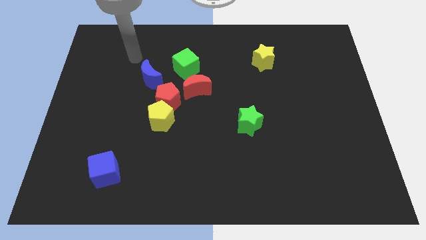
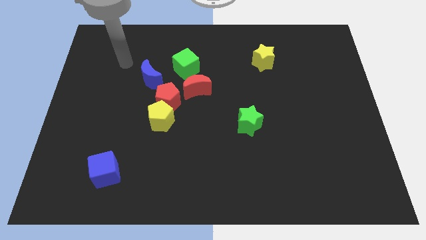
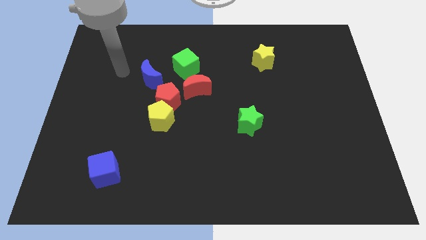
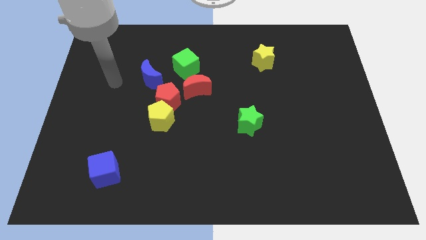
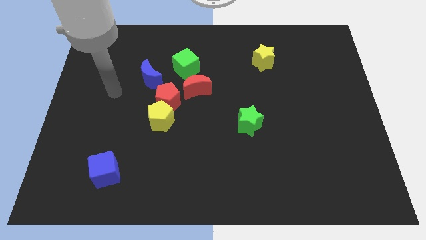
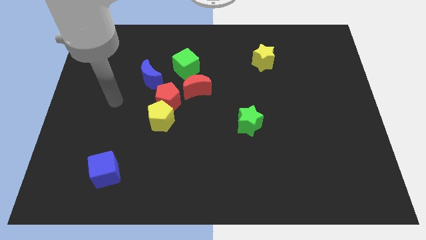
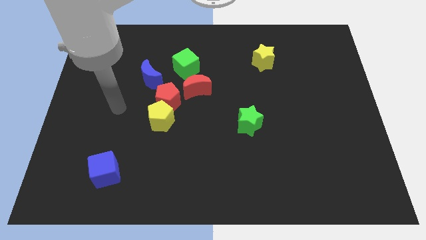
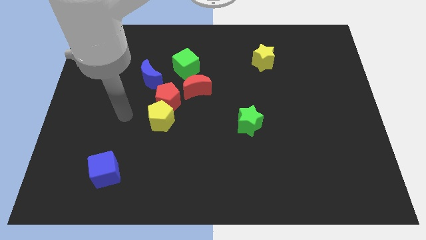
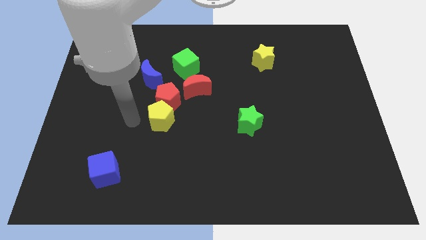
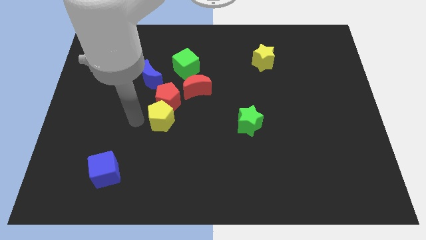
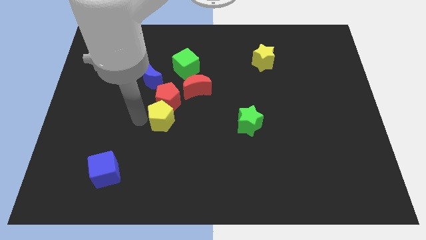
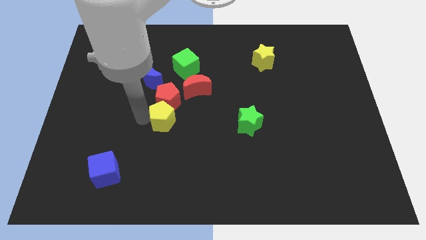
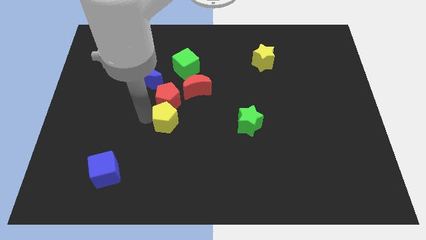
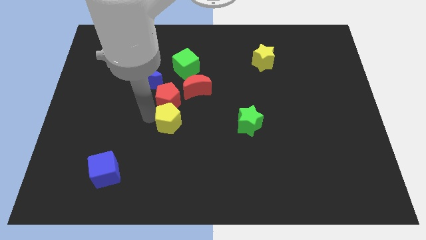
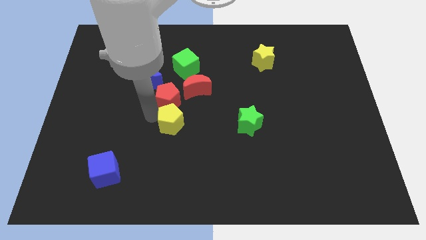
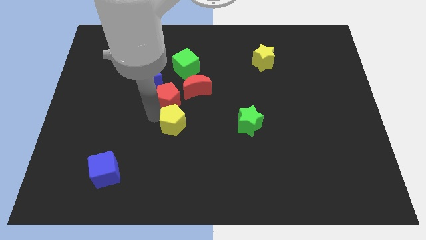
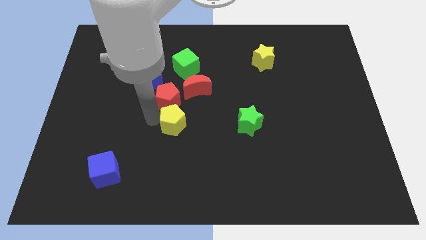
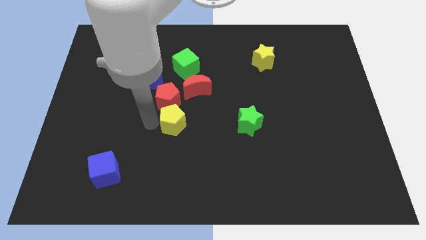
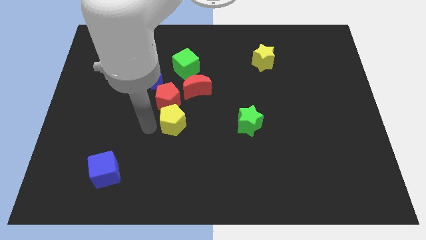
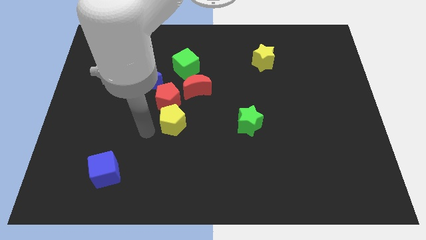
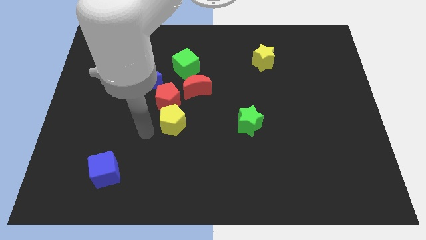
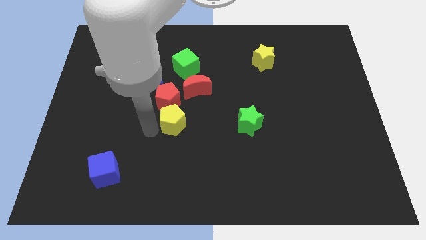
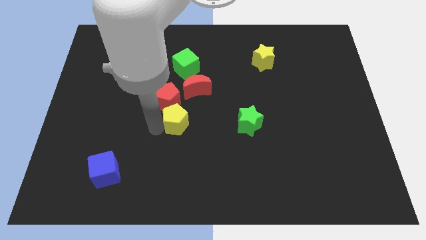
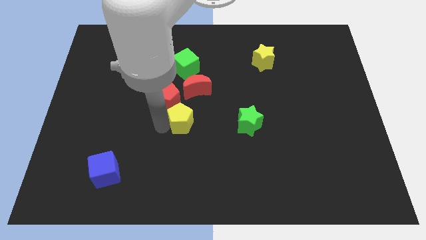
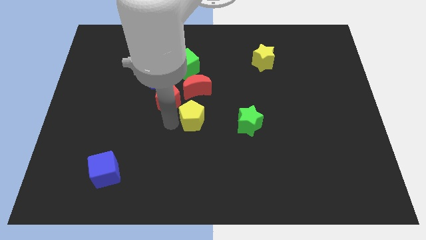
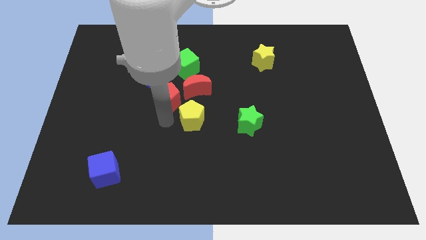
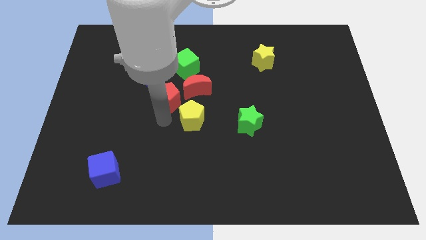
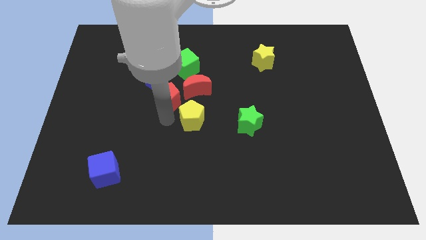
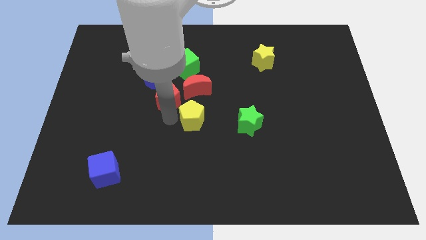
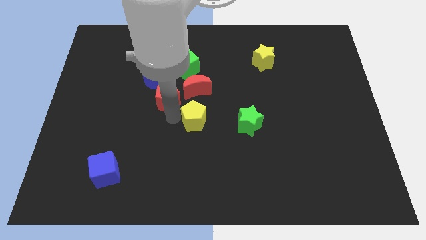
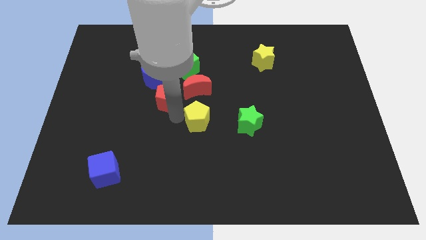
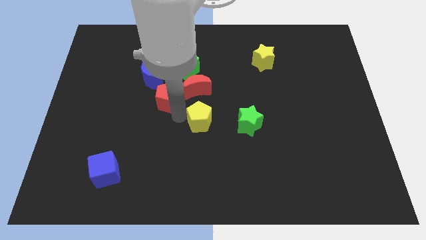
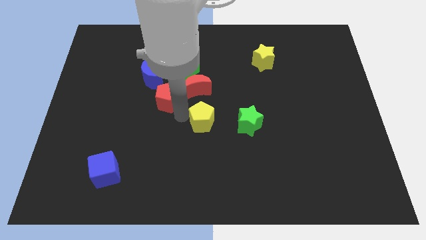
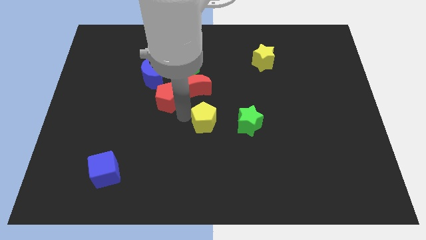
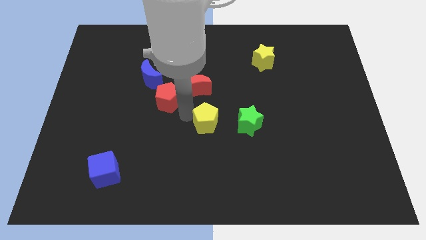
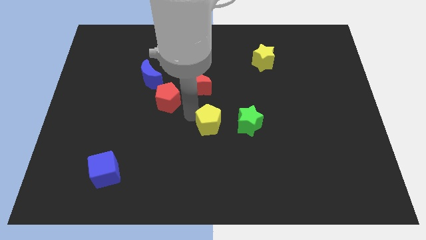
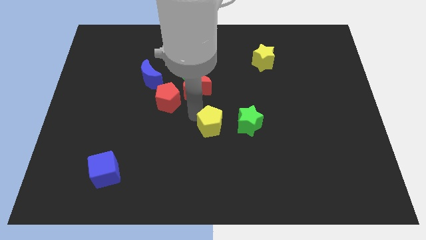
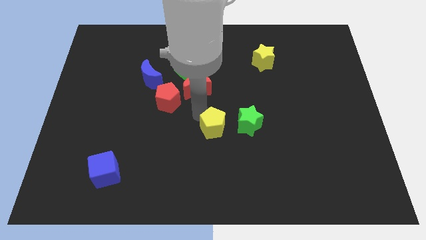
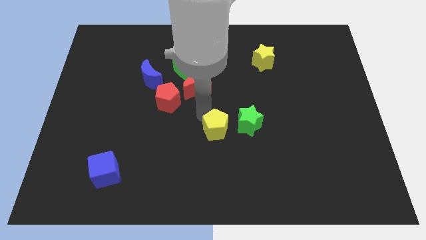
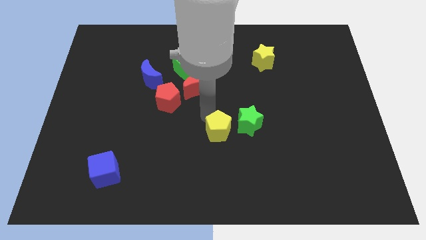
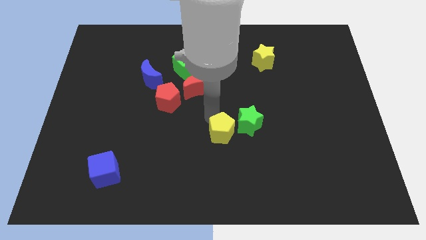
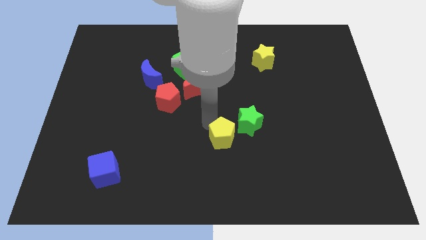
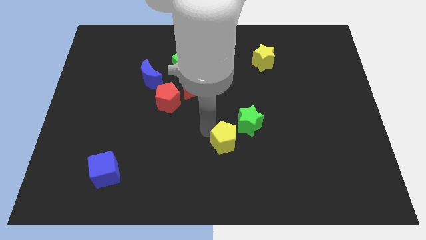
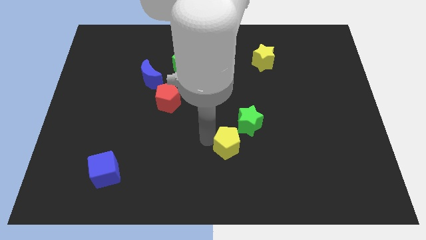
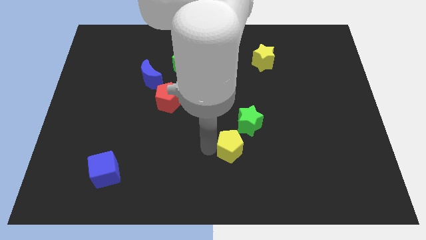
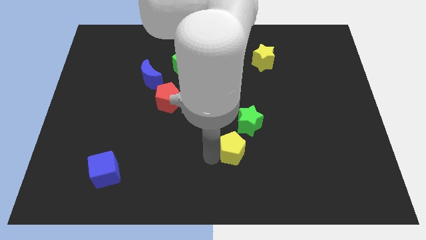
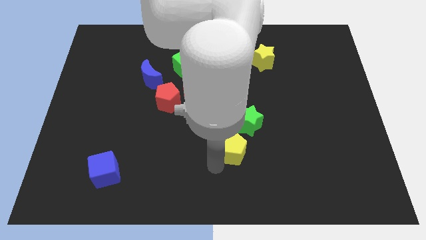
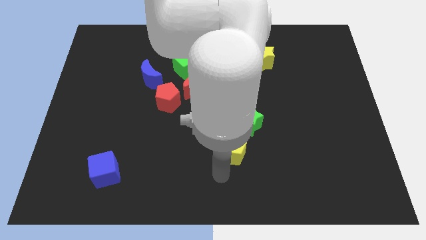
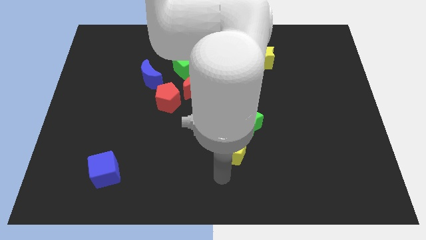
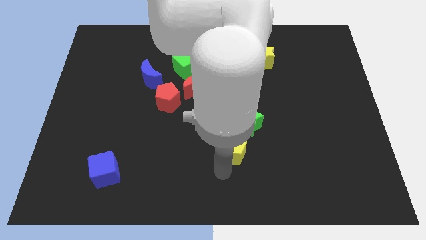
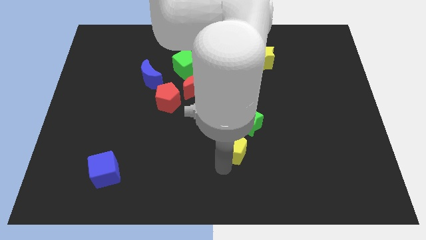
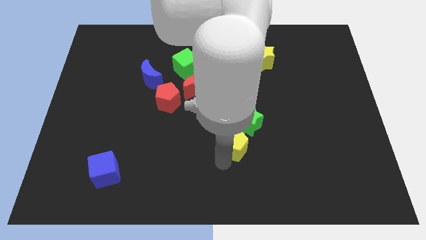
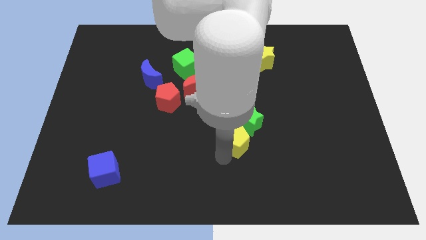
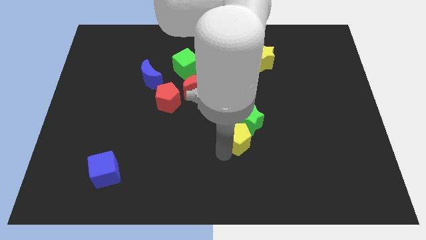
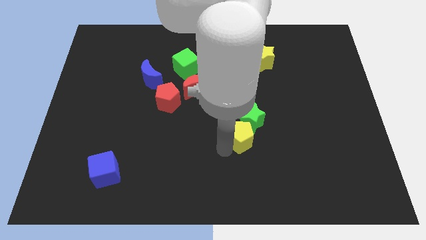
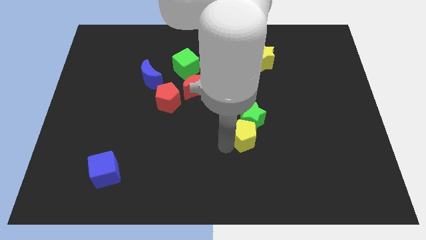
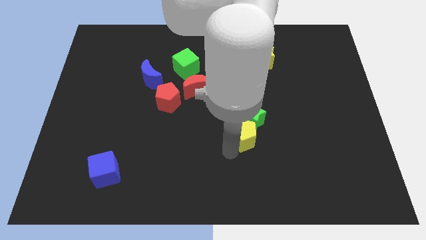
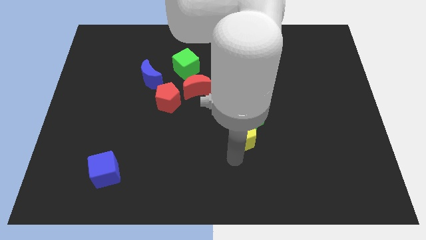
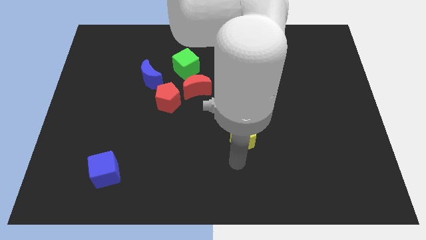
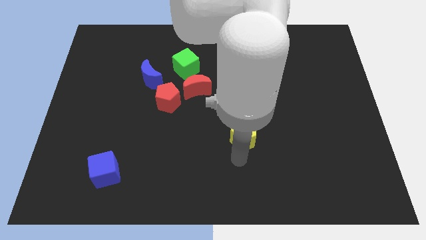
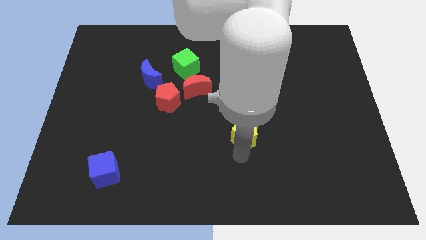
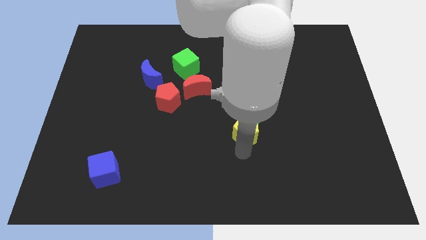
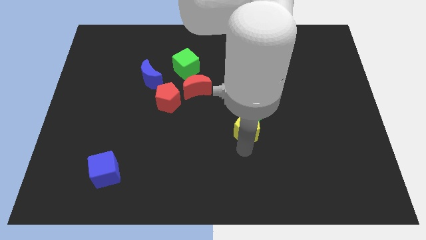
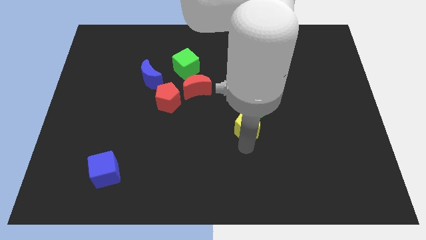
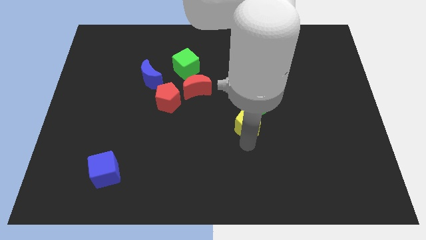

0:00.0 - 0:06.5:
push the yellow pentagon right

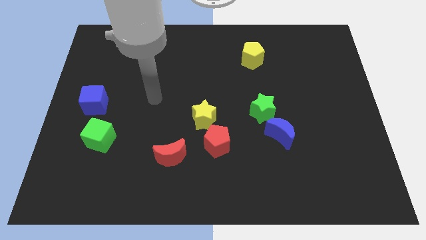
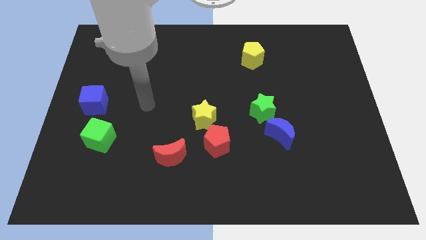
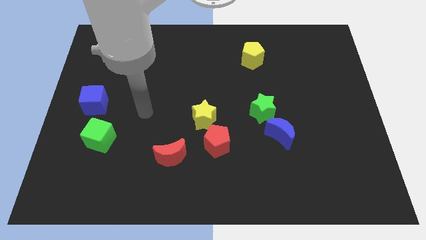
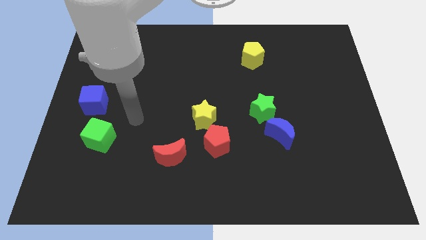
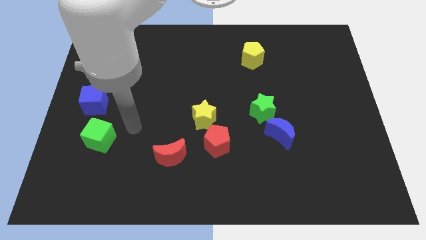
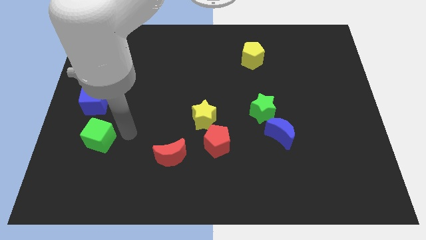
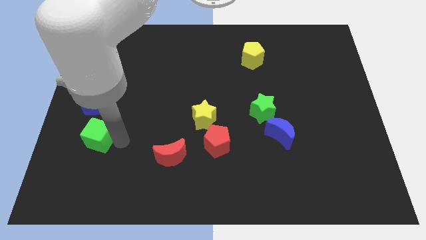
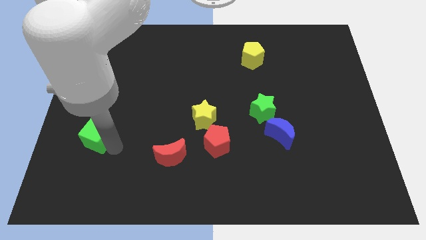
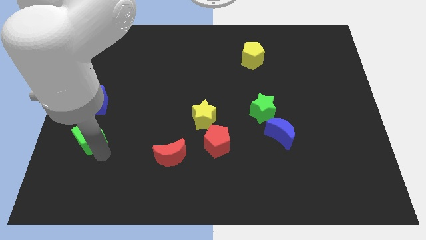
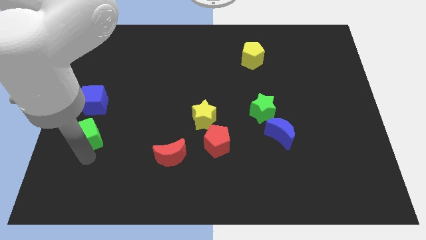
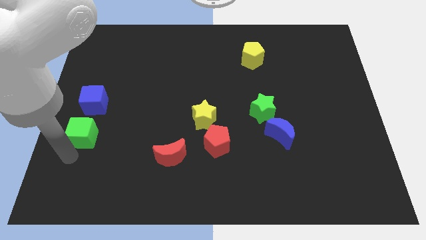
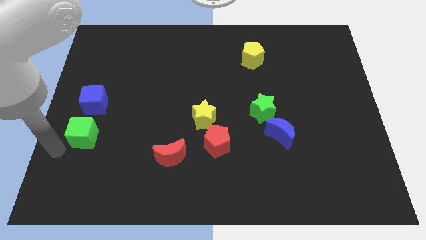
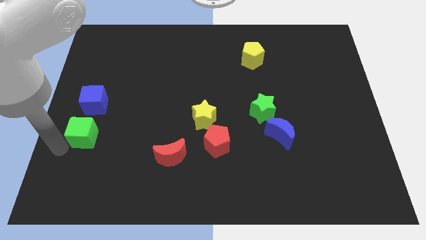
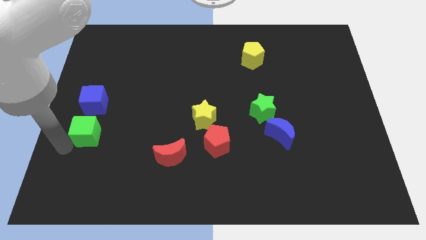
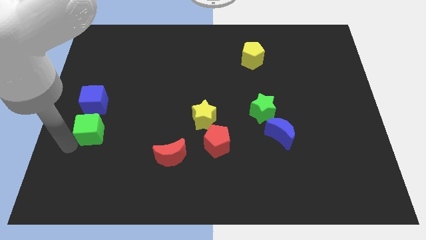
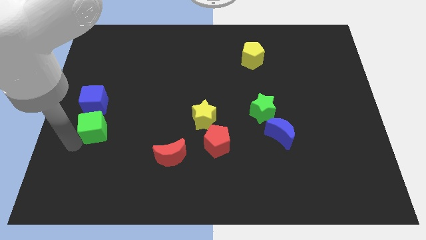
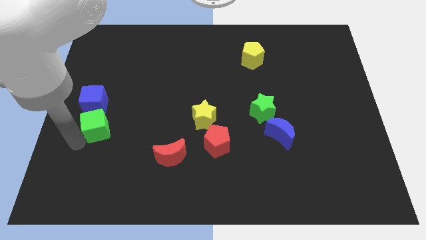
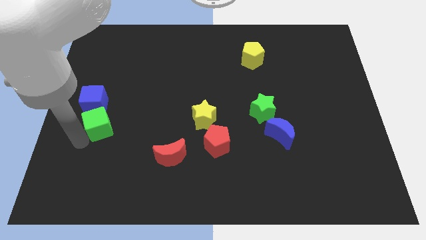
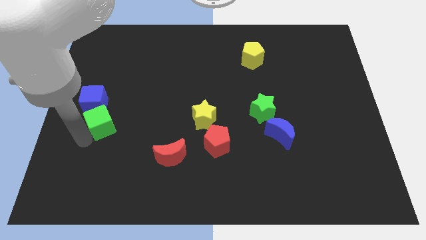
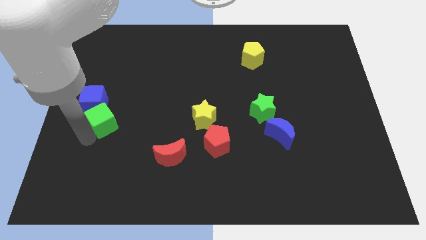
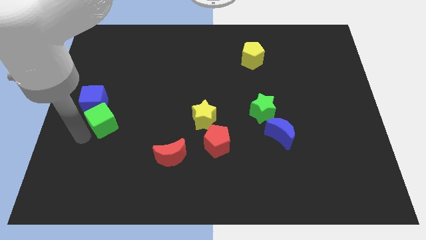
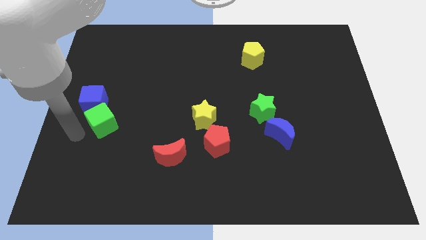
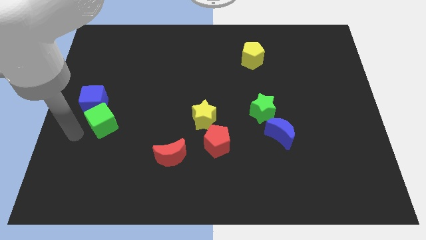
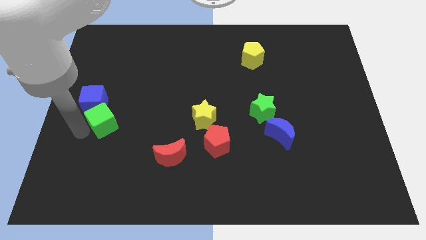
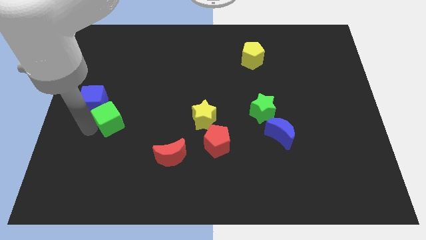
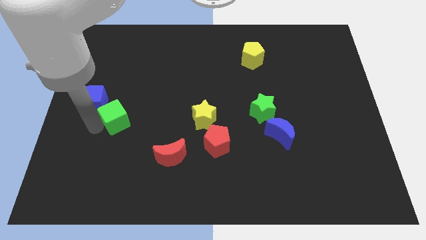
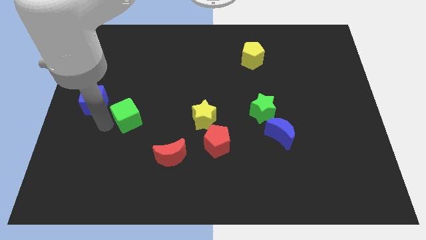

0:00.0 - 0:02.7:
slide the green cube a bit upwards and then to the right
